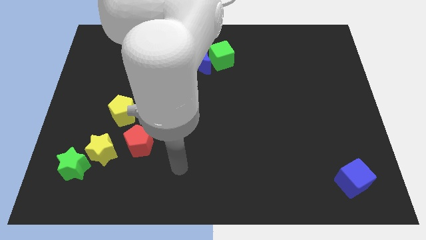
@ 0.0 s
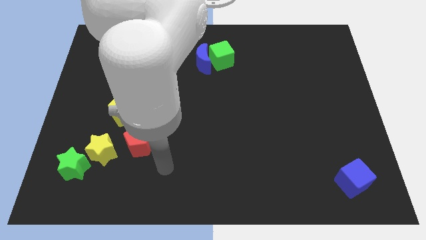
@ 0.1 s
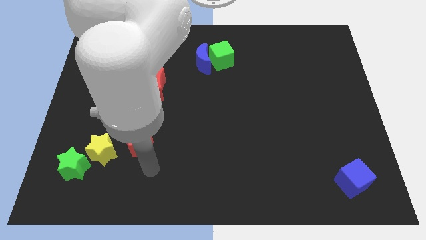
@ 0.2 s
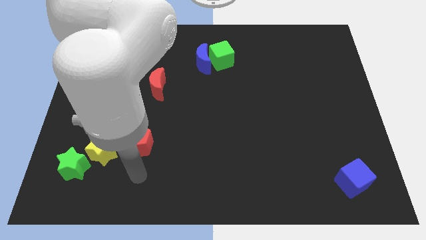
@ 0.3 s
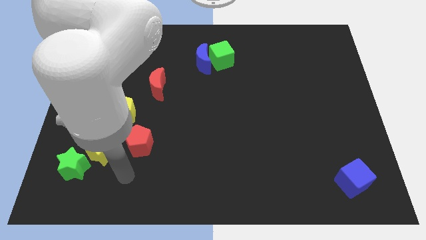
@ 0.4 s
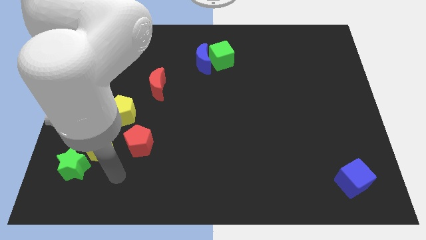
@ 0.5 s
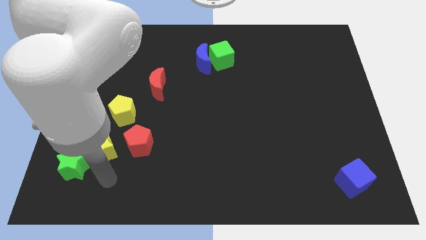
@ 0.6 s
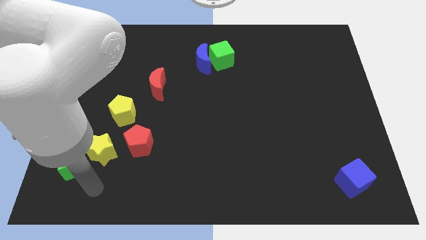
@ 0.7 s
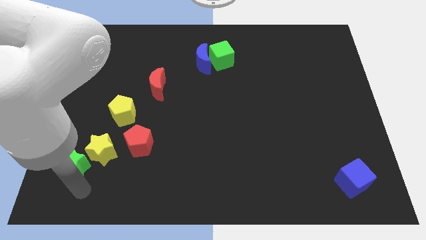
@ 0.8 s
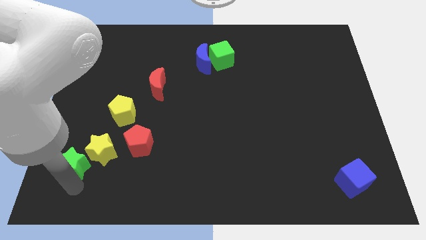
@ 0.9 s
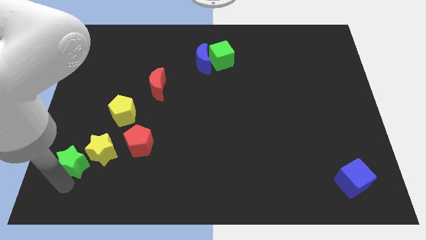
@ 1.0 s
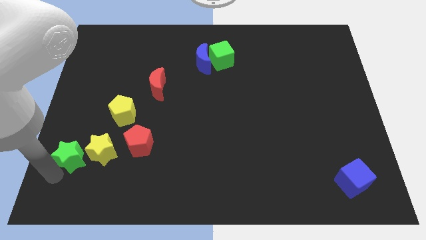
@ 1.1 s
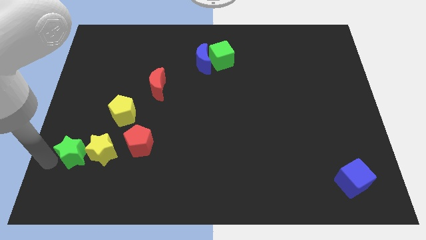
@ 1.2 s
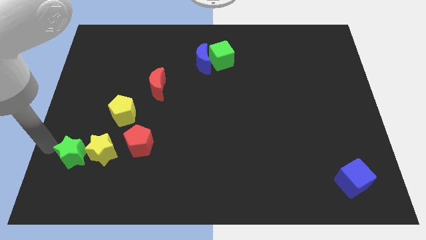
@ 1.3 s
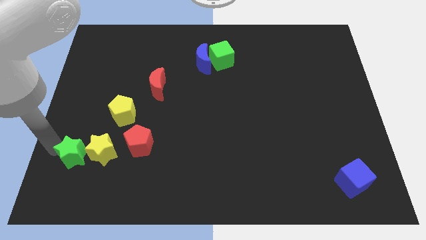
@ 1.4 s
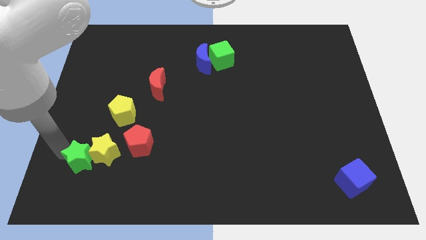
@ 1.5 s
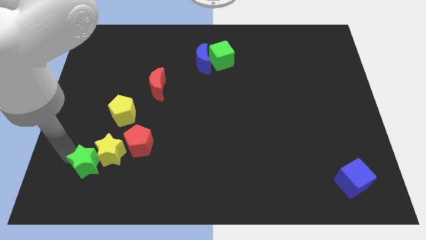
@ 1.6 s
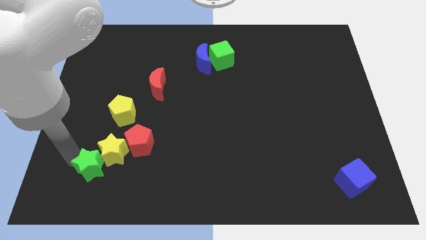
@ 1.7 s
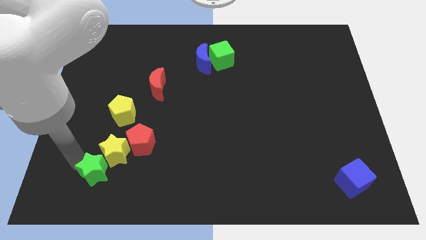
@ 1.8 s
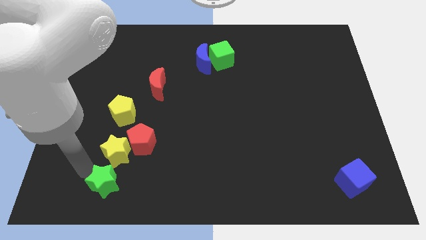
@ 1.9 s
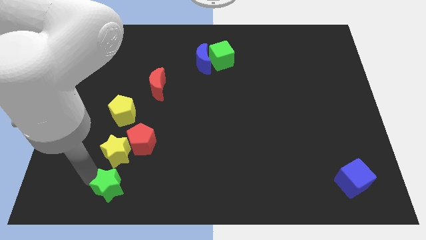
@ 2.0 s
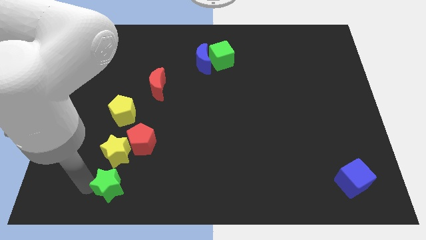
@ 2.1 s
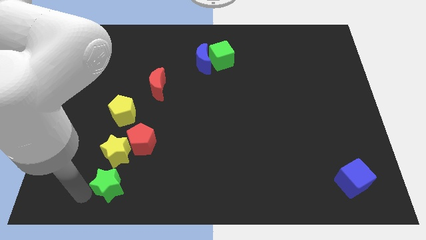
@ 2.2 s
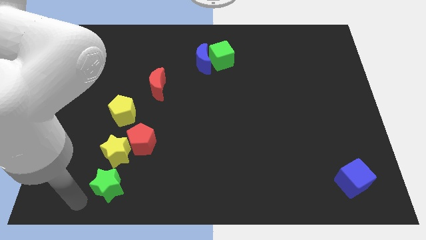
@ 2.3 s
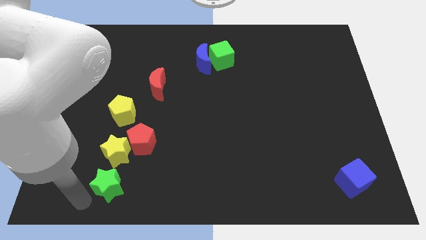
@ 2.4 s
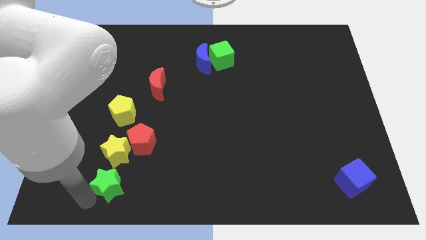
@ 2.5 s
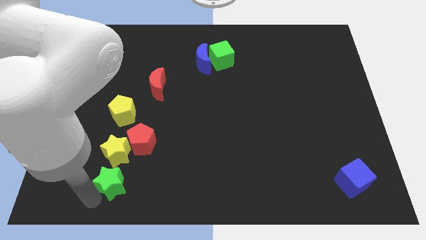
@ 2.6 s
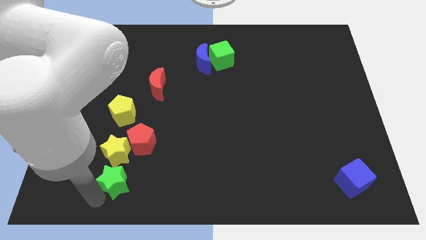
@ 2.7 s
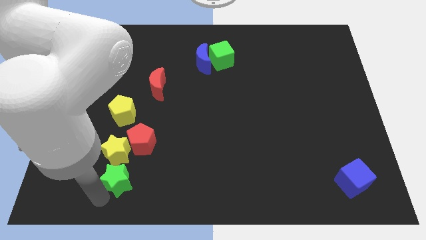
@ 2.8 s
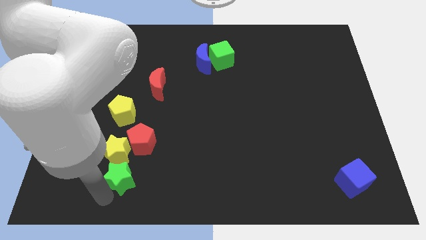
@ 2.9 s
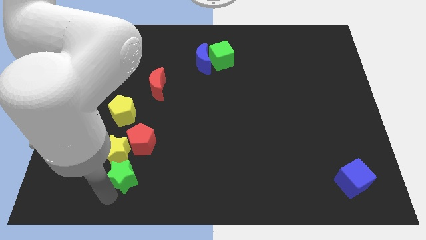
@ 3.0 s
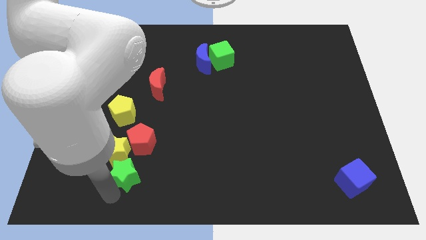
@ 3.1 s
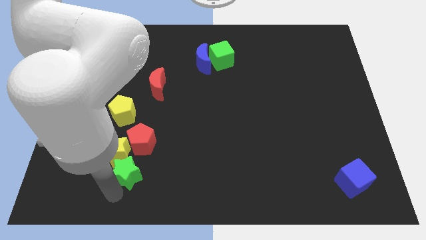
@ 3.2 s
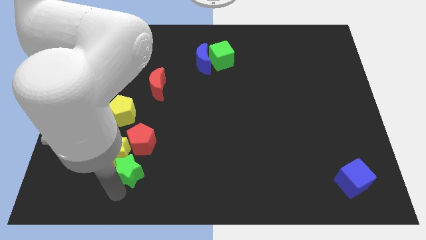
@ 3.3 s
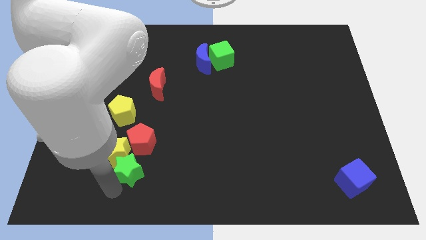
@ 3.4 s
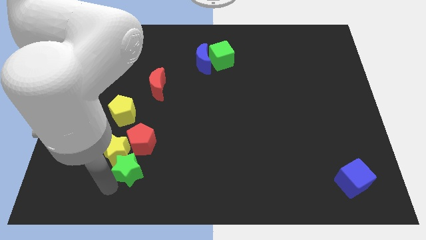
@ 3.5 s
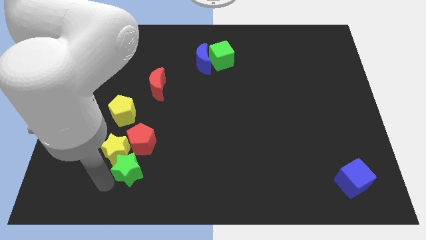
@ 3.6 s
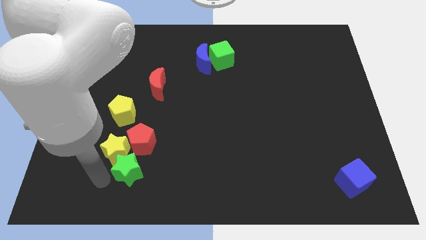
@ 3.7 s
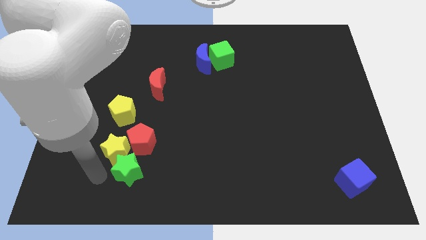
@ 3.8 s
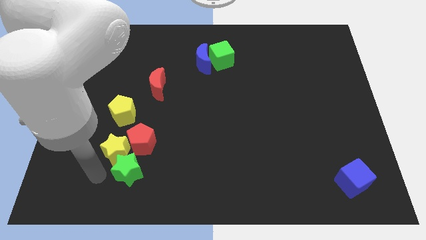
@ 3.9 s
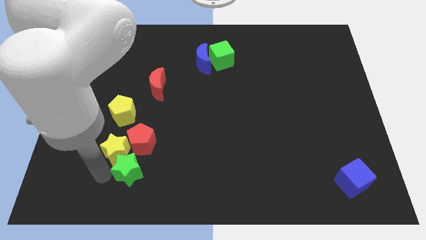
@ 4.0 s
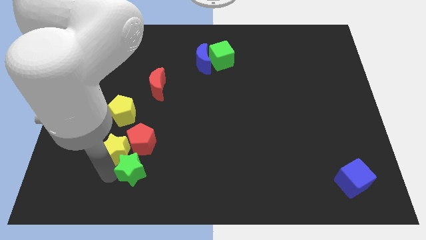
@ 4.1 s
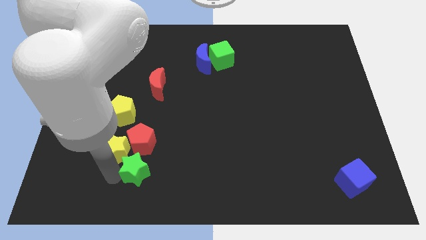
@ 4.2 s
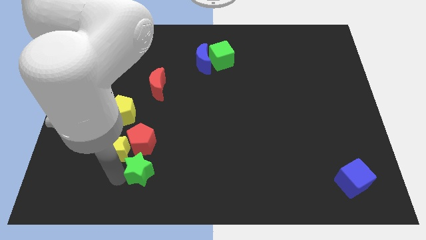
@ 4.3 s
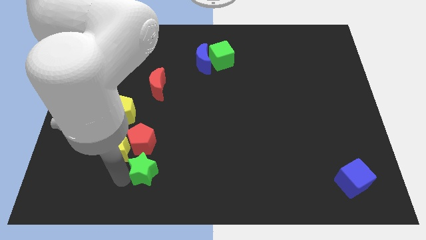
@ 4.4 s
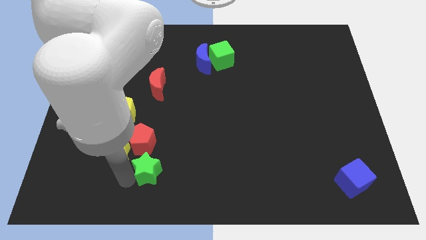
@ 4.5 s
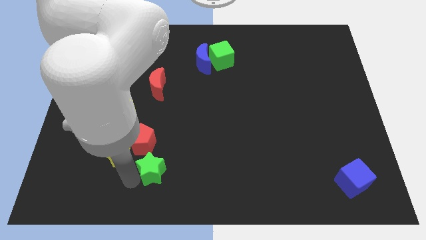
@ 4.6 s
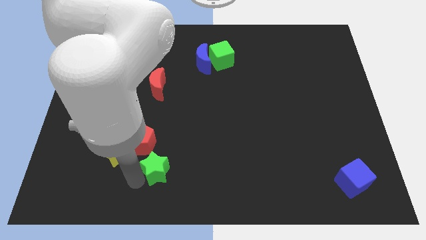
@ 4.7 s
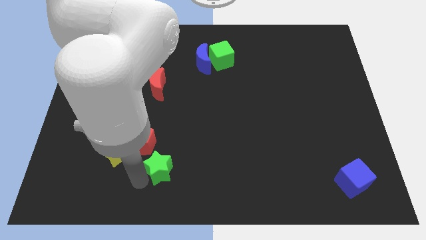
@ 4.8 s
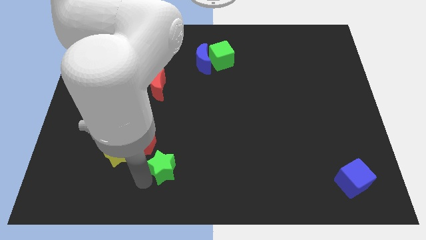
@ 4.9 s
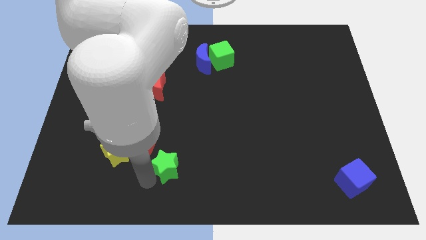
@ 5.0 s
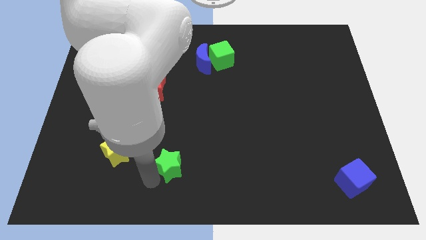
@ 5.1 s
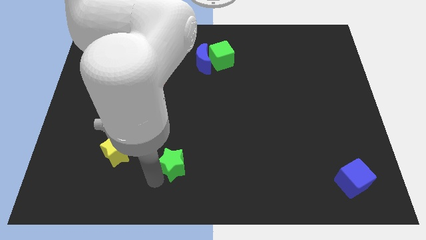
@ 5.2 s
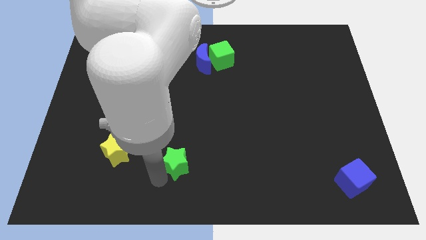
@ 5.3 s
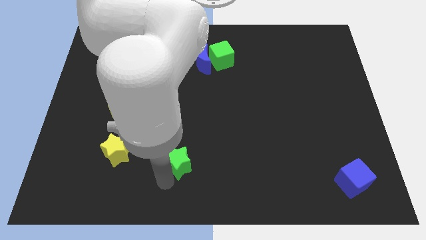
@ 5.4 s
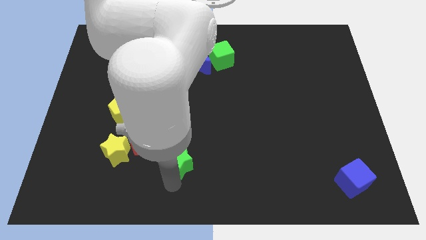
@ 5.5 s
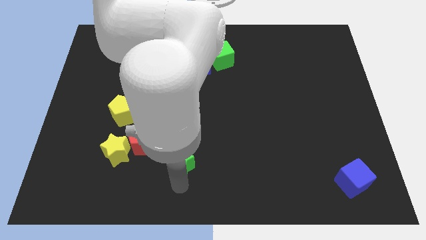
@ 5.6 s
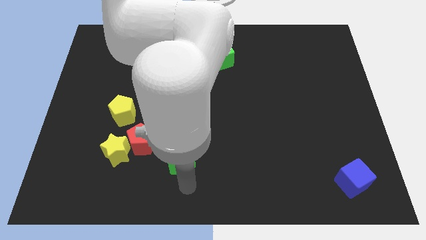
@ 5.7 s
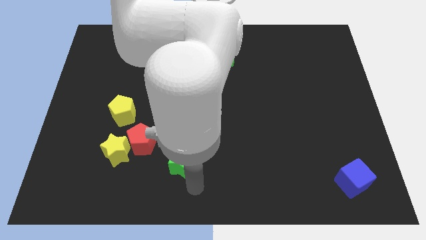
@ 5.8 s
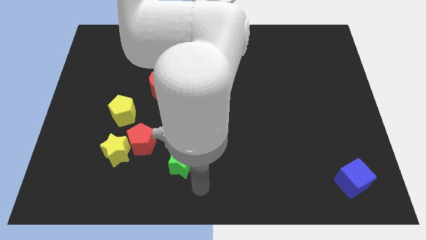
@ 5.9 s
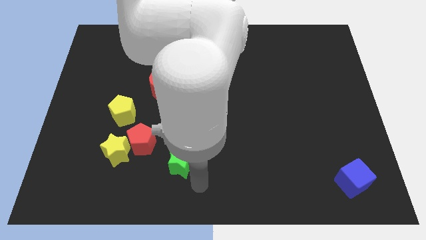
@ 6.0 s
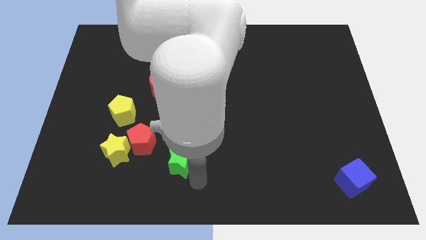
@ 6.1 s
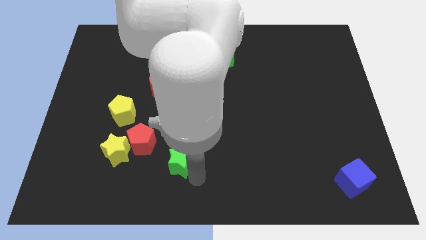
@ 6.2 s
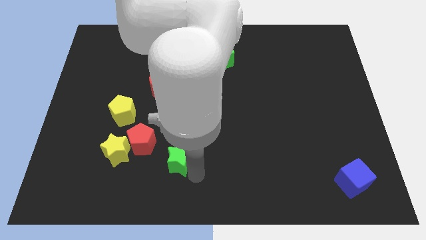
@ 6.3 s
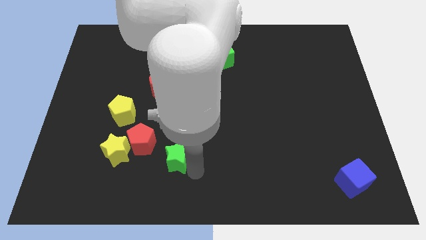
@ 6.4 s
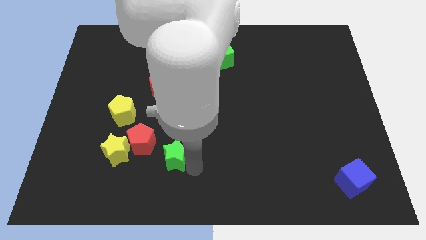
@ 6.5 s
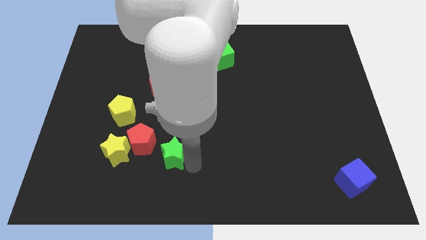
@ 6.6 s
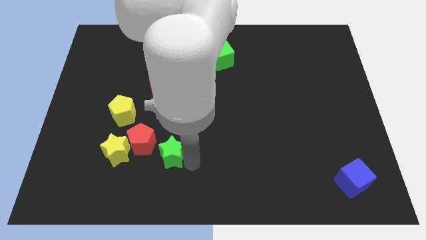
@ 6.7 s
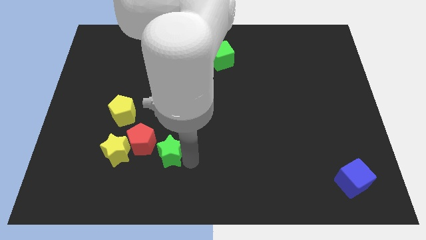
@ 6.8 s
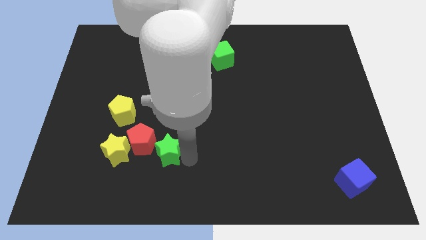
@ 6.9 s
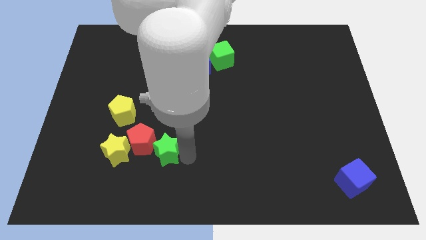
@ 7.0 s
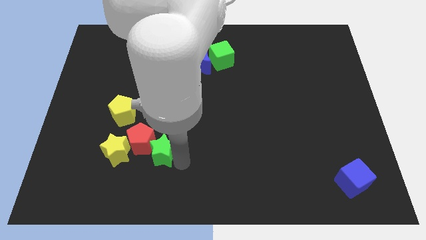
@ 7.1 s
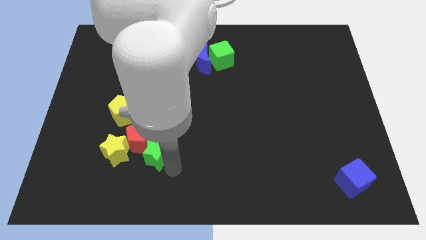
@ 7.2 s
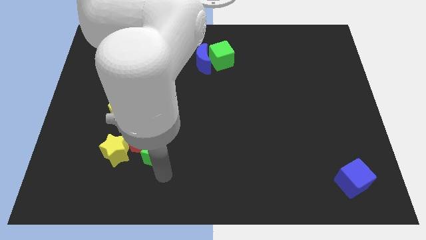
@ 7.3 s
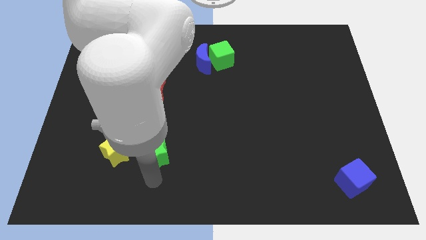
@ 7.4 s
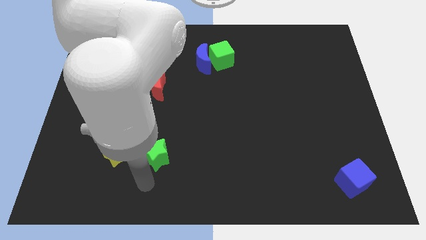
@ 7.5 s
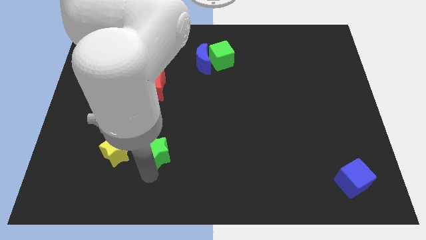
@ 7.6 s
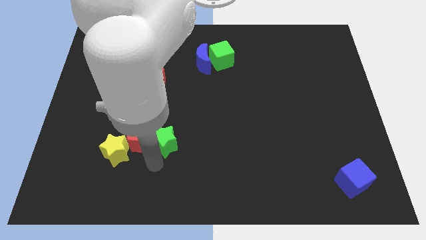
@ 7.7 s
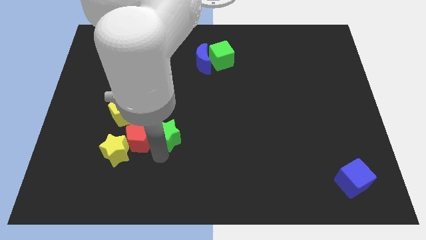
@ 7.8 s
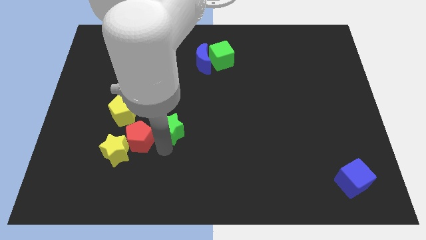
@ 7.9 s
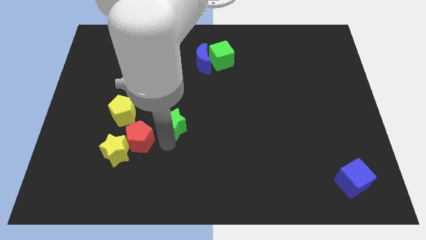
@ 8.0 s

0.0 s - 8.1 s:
push the green star diagonally upwards and right

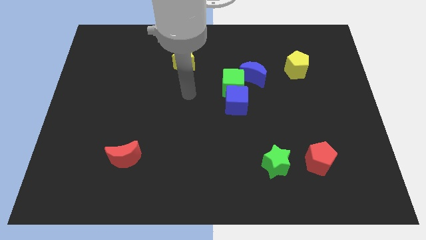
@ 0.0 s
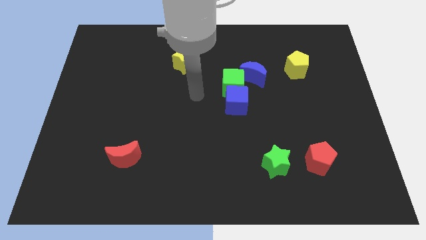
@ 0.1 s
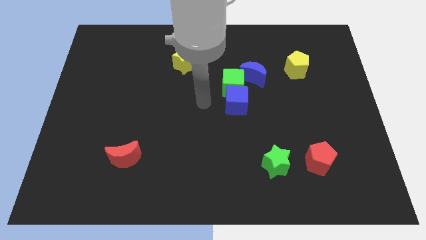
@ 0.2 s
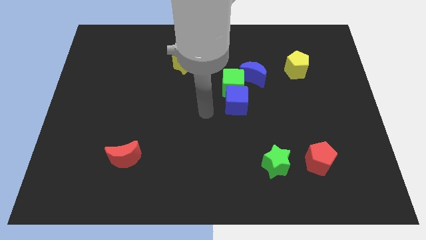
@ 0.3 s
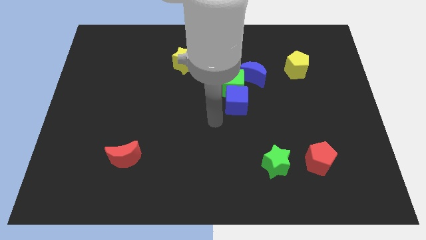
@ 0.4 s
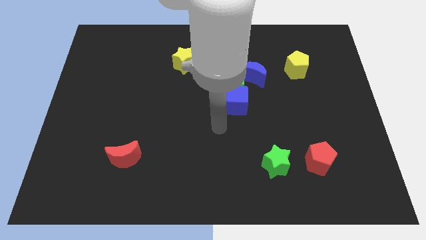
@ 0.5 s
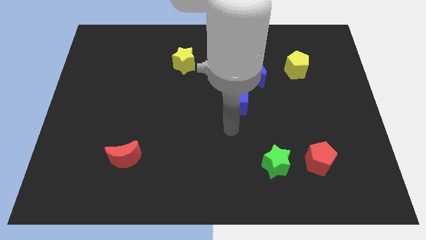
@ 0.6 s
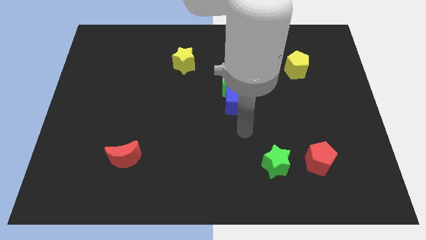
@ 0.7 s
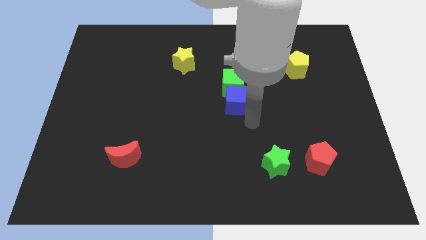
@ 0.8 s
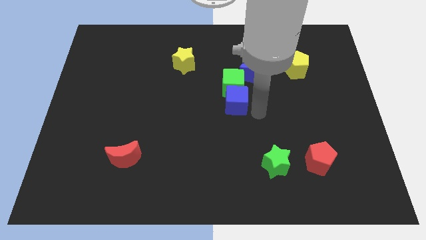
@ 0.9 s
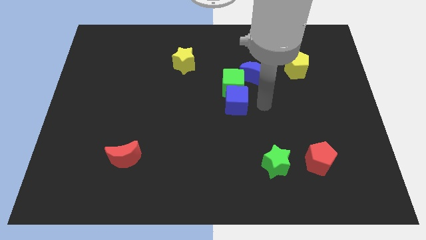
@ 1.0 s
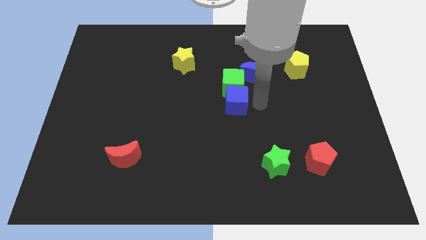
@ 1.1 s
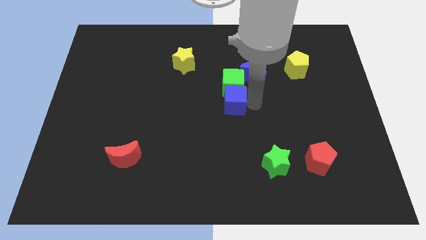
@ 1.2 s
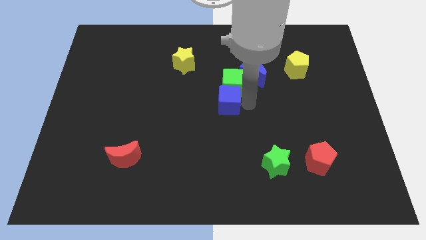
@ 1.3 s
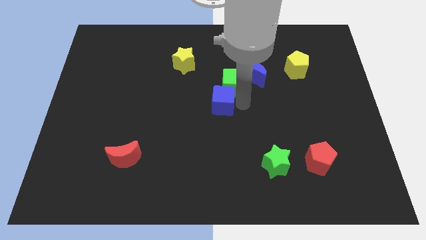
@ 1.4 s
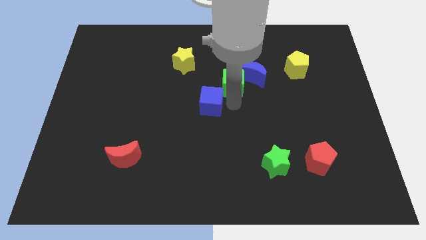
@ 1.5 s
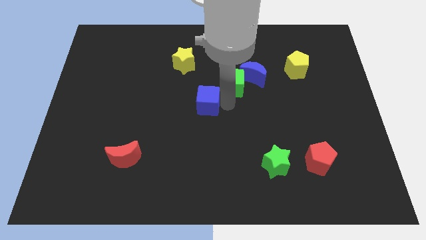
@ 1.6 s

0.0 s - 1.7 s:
push the blue cube a bit left
